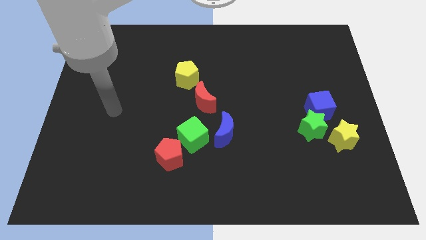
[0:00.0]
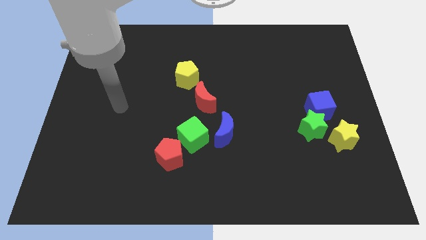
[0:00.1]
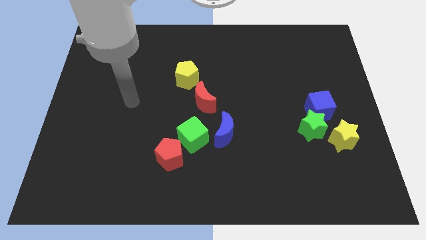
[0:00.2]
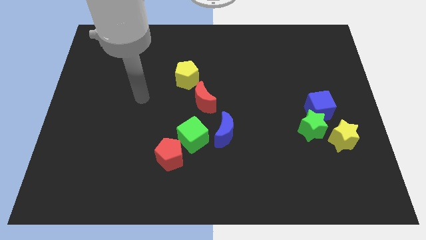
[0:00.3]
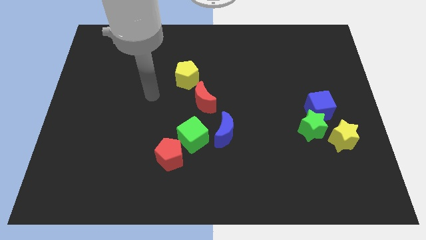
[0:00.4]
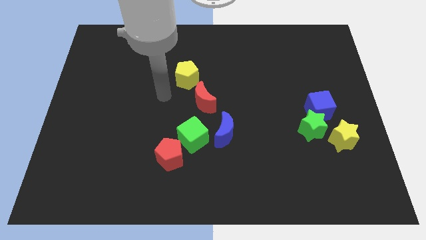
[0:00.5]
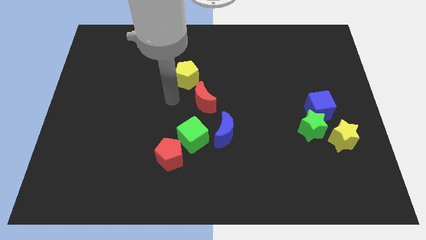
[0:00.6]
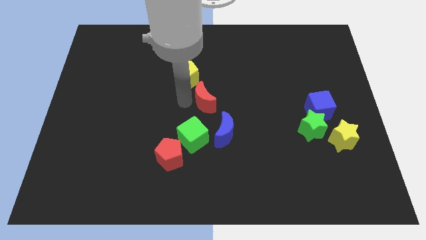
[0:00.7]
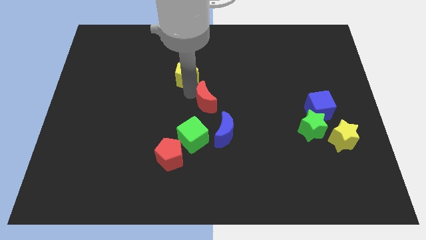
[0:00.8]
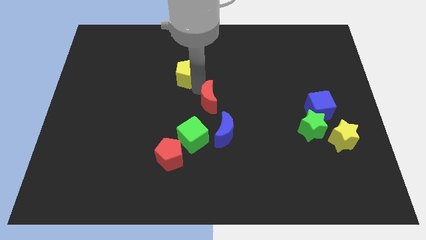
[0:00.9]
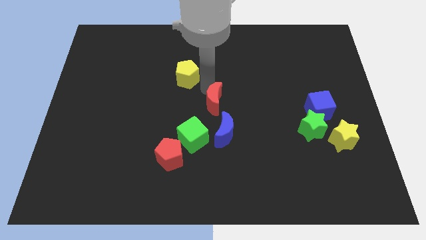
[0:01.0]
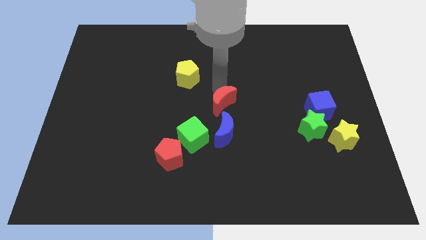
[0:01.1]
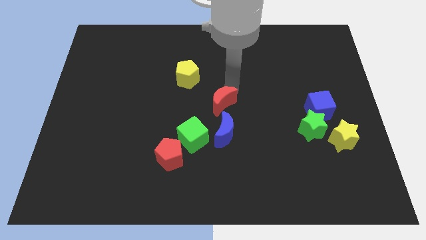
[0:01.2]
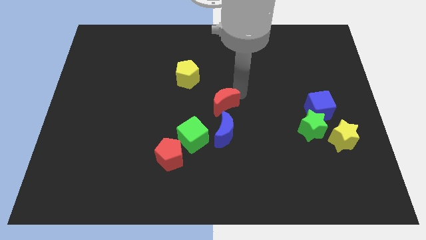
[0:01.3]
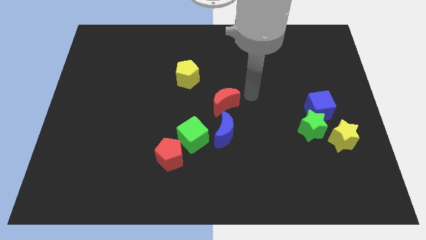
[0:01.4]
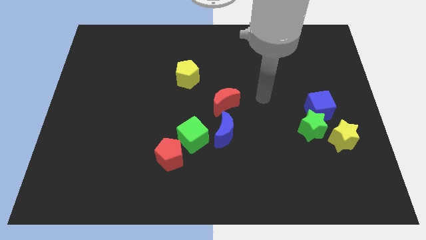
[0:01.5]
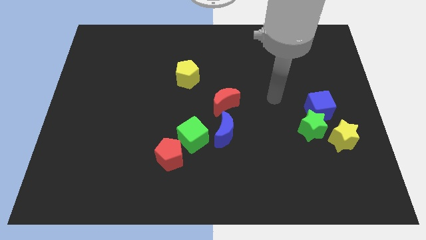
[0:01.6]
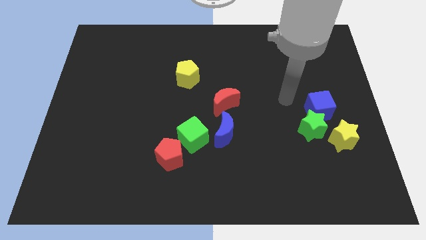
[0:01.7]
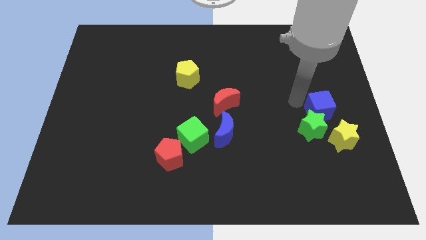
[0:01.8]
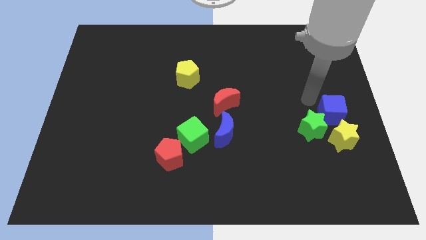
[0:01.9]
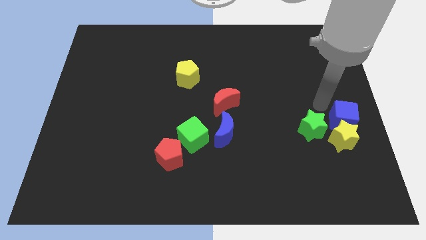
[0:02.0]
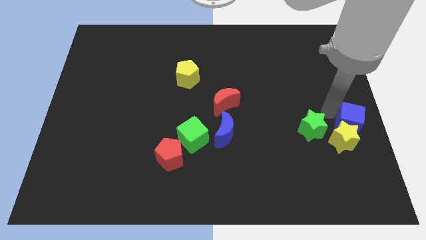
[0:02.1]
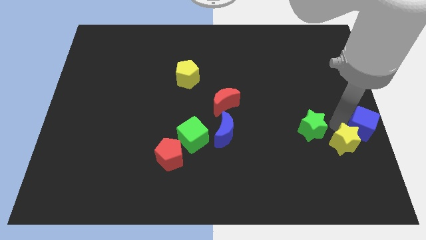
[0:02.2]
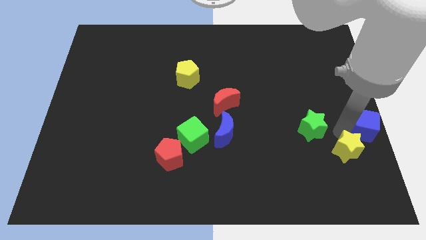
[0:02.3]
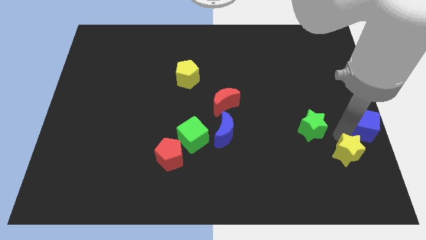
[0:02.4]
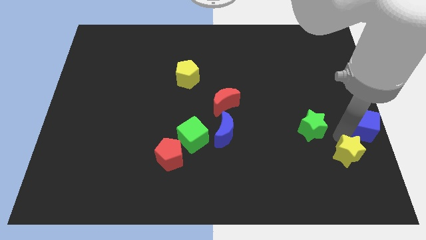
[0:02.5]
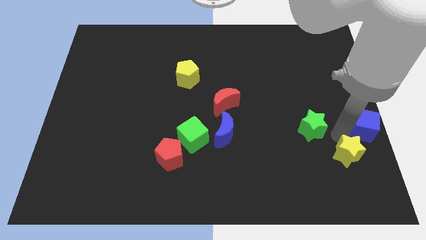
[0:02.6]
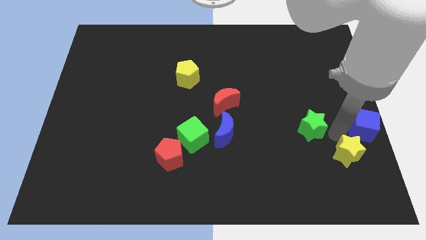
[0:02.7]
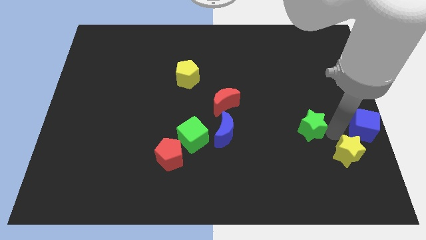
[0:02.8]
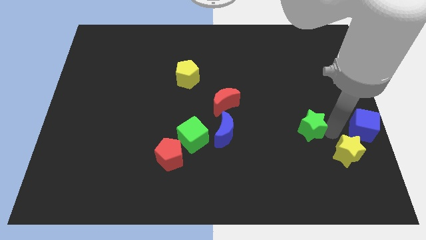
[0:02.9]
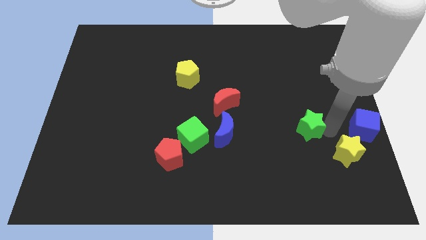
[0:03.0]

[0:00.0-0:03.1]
pull the green star apart from the blue cube and yellow star

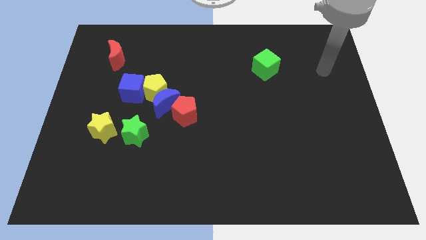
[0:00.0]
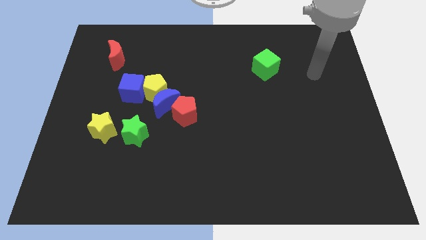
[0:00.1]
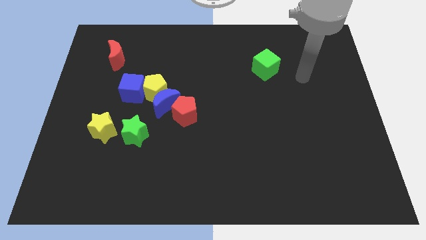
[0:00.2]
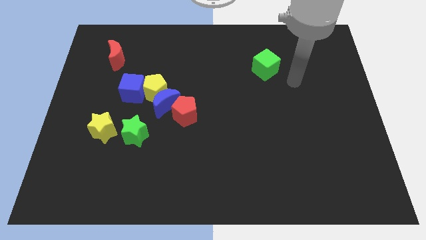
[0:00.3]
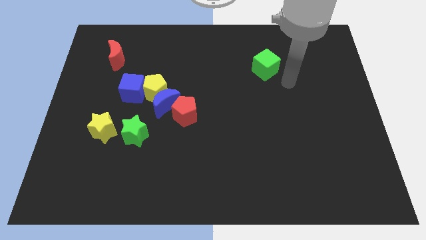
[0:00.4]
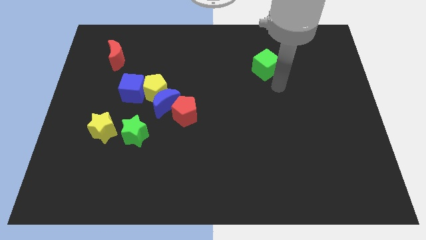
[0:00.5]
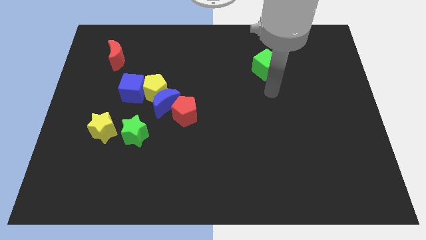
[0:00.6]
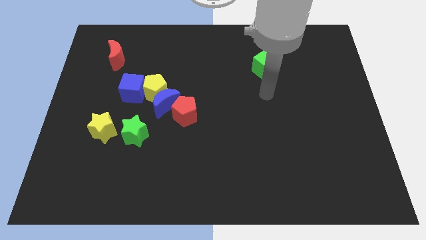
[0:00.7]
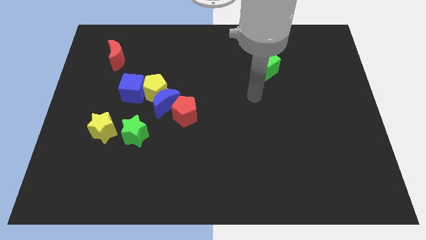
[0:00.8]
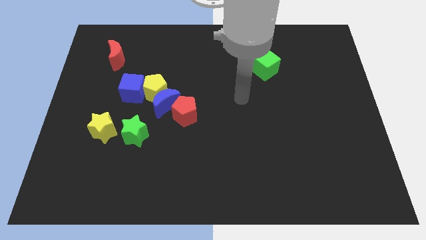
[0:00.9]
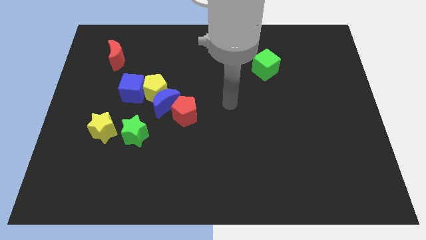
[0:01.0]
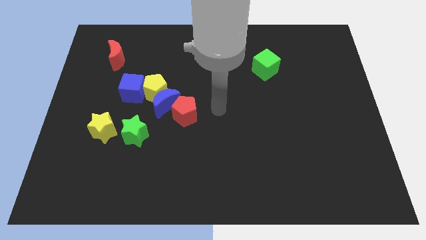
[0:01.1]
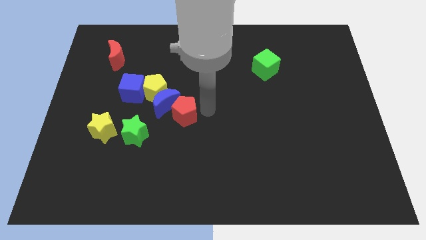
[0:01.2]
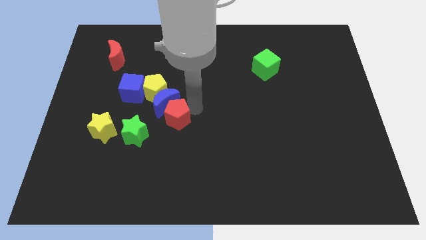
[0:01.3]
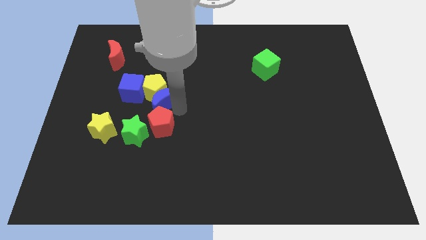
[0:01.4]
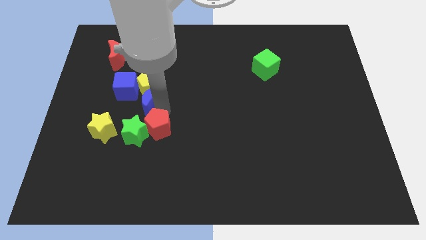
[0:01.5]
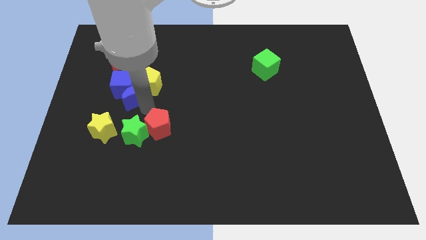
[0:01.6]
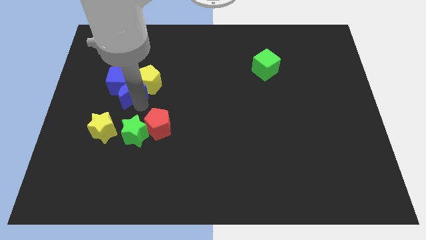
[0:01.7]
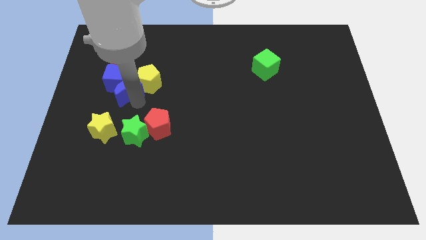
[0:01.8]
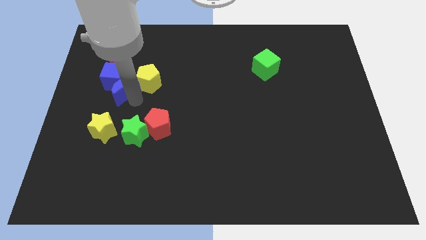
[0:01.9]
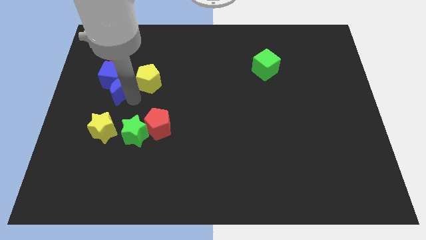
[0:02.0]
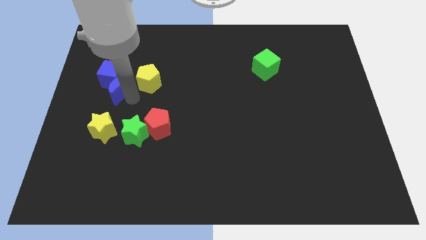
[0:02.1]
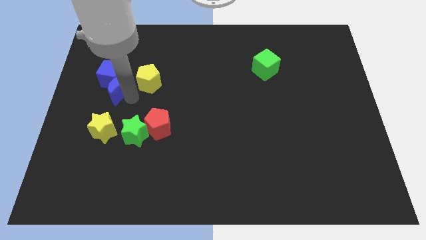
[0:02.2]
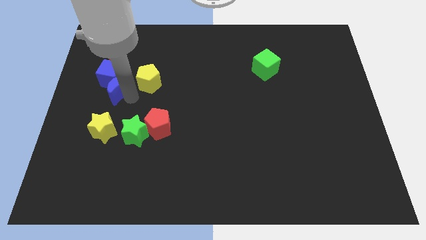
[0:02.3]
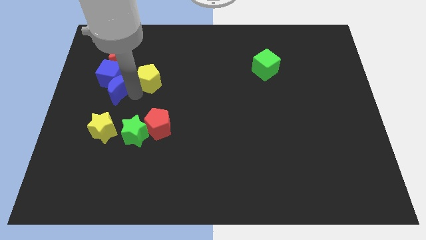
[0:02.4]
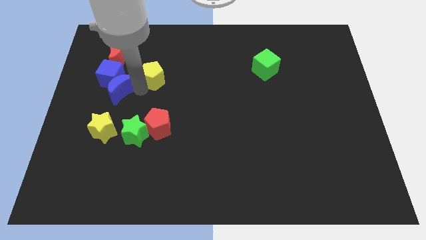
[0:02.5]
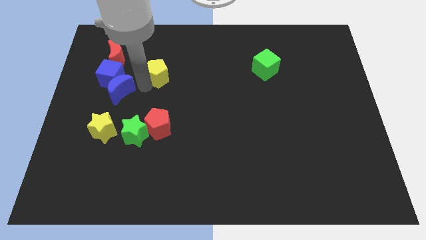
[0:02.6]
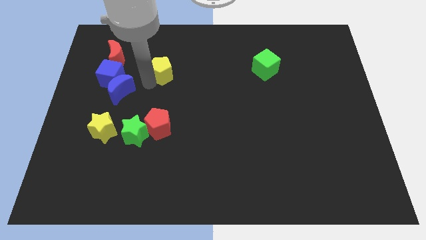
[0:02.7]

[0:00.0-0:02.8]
separate the yellow pentagon from the blue moon, blue cube, and red pentagon

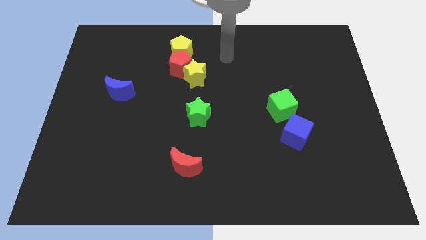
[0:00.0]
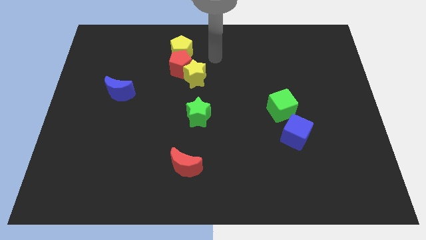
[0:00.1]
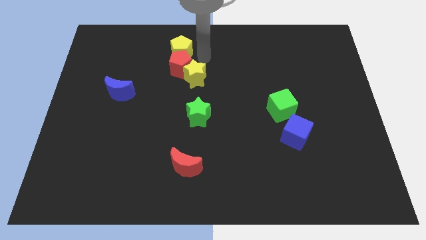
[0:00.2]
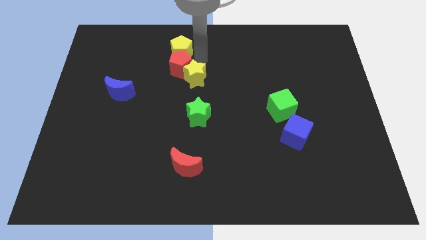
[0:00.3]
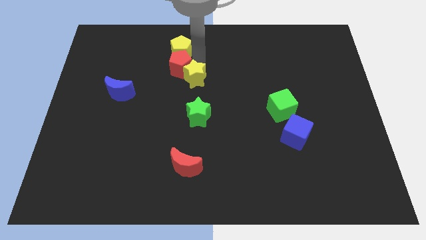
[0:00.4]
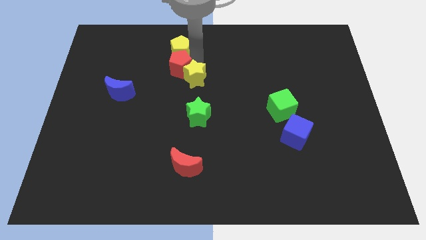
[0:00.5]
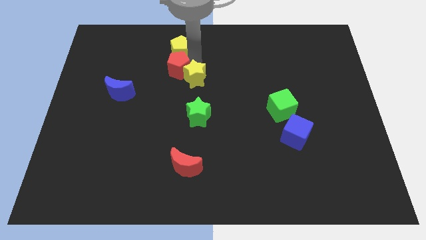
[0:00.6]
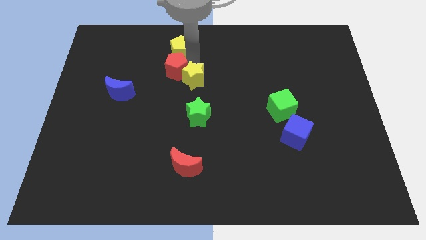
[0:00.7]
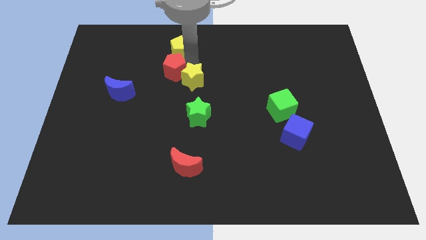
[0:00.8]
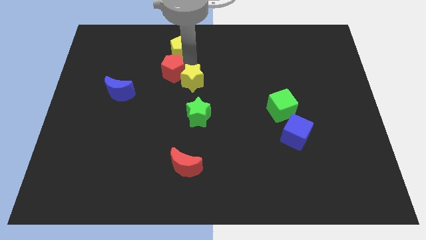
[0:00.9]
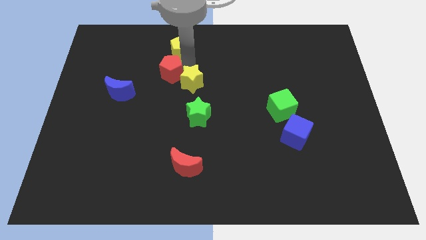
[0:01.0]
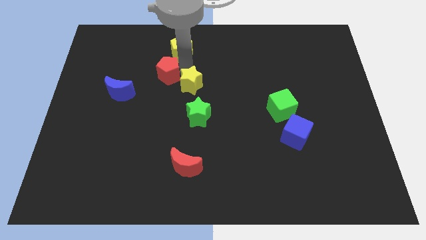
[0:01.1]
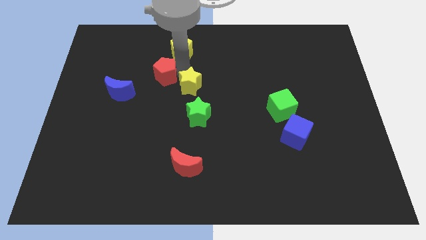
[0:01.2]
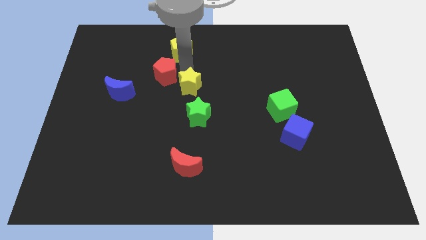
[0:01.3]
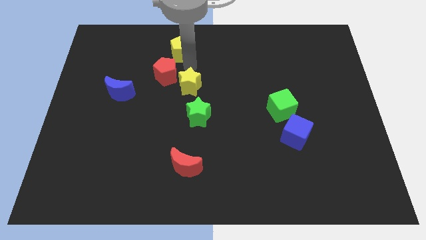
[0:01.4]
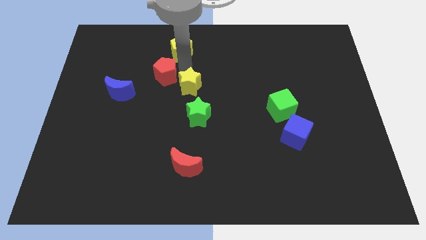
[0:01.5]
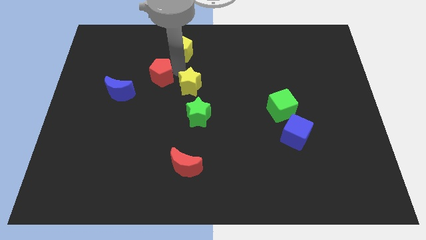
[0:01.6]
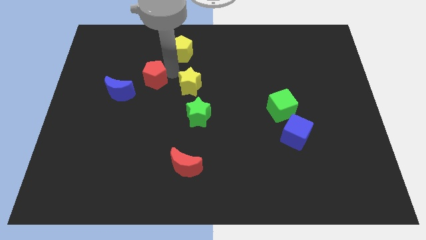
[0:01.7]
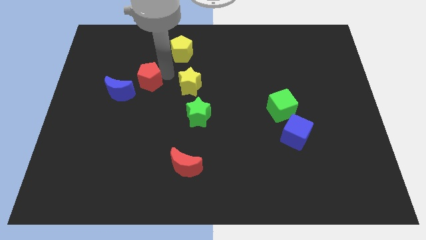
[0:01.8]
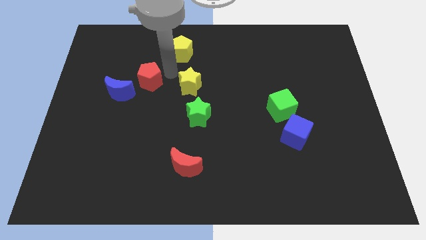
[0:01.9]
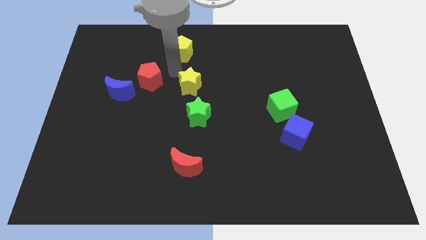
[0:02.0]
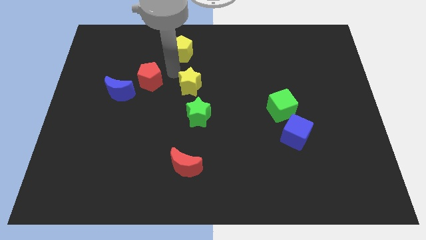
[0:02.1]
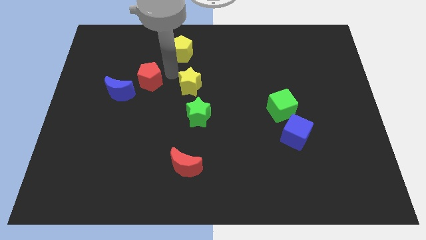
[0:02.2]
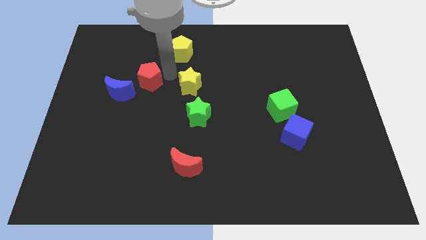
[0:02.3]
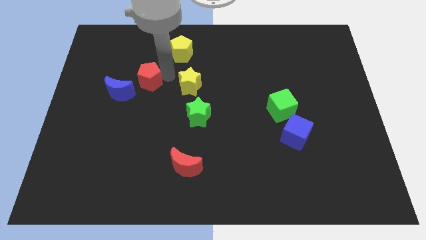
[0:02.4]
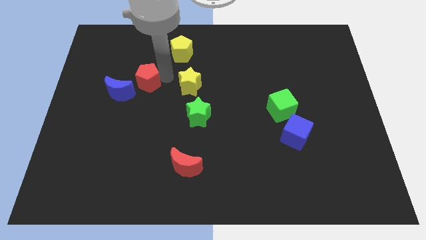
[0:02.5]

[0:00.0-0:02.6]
pull the red pentagon apart from the yellow star and yellow pentagon

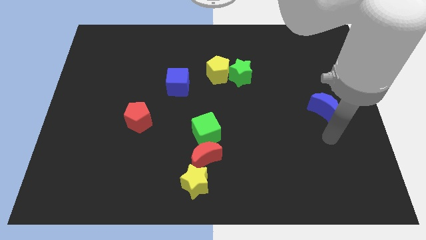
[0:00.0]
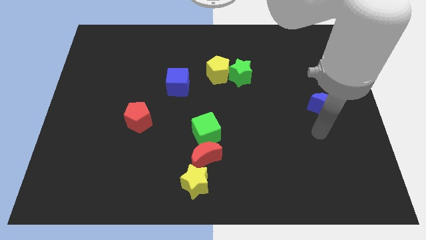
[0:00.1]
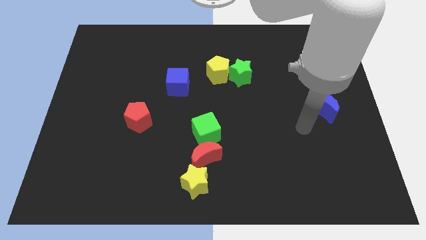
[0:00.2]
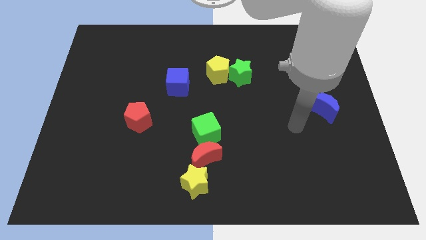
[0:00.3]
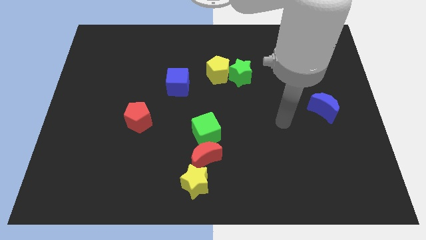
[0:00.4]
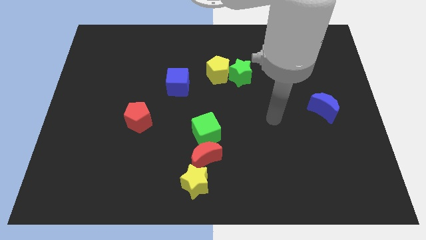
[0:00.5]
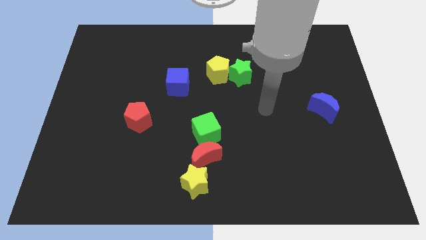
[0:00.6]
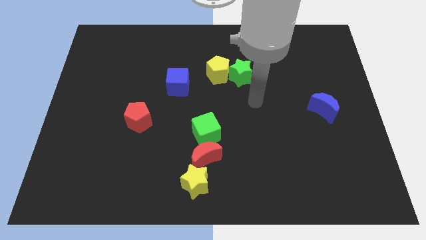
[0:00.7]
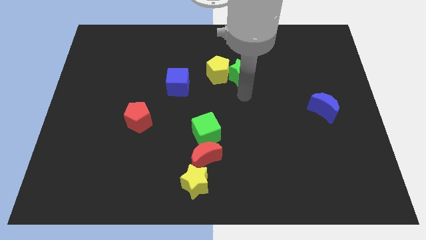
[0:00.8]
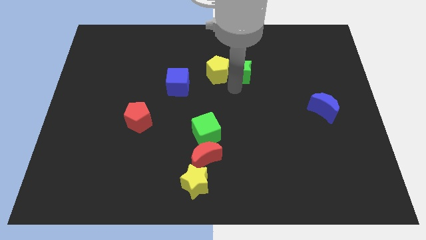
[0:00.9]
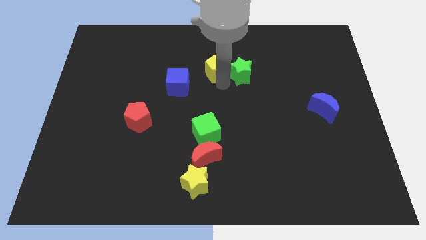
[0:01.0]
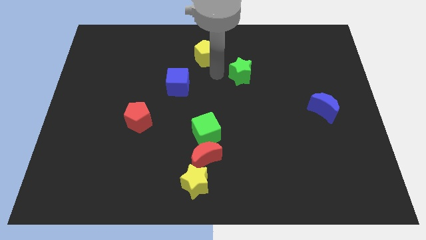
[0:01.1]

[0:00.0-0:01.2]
move the green star away from the yellow pentagon
